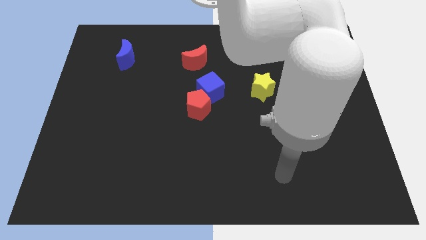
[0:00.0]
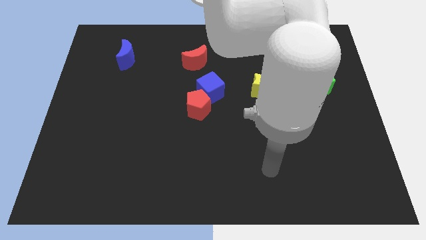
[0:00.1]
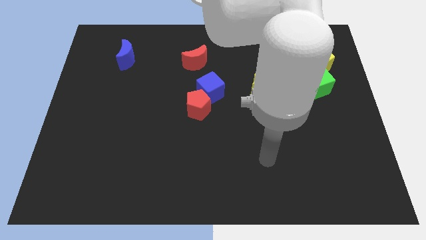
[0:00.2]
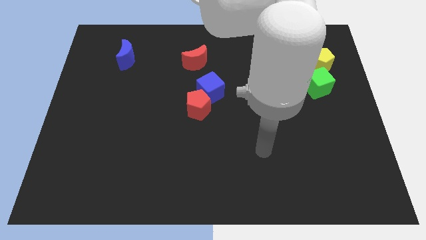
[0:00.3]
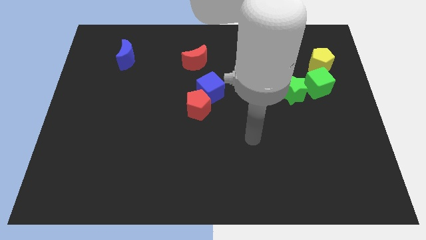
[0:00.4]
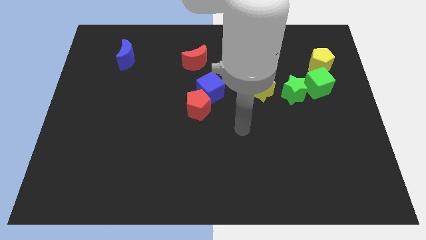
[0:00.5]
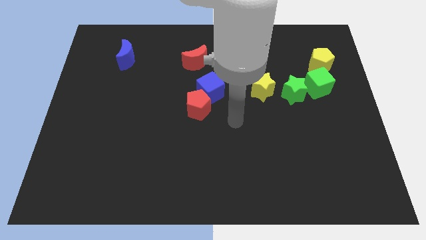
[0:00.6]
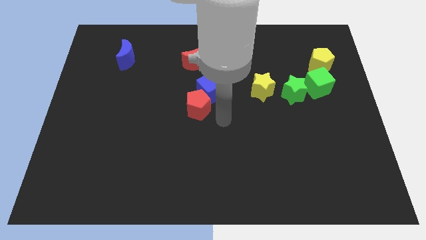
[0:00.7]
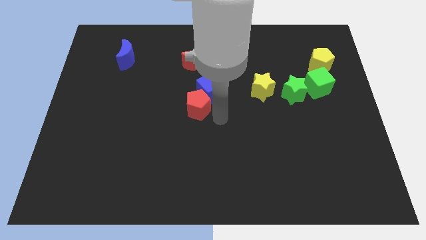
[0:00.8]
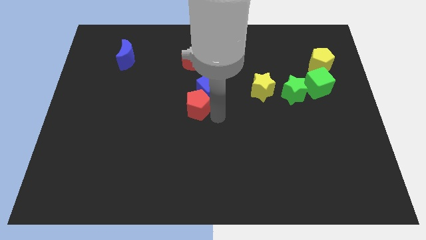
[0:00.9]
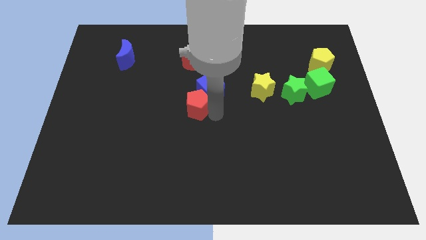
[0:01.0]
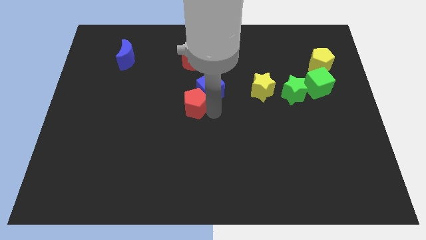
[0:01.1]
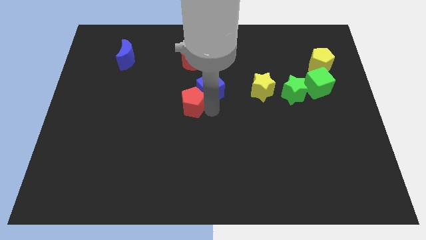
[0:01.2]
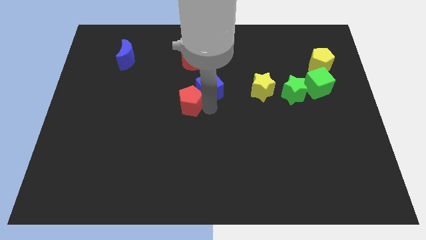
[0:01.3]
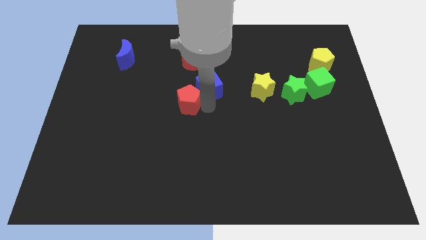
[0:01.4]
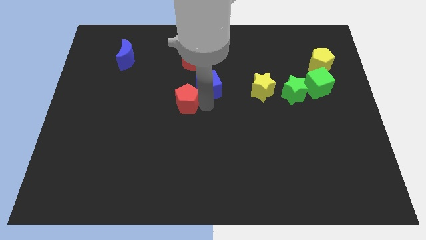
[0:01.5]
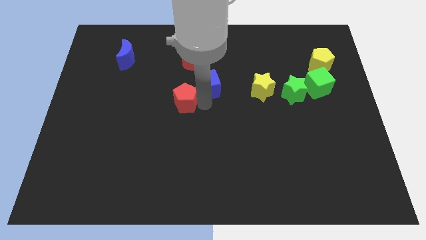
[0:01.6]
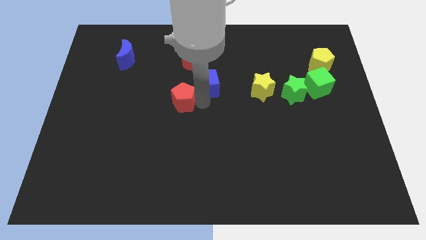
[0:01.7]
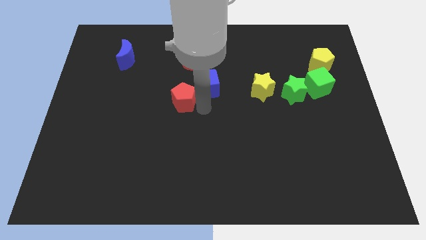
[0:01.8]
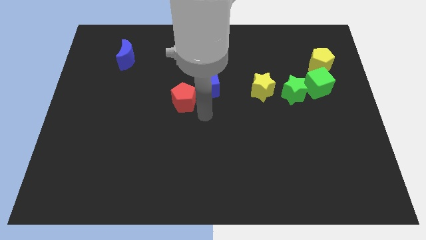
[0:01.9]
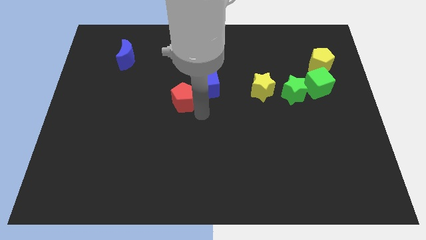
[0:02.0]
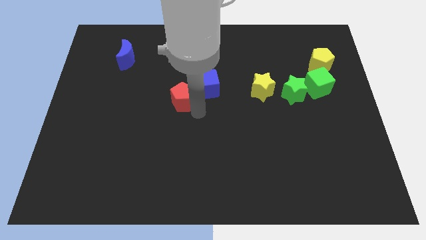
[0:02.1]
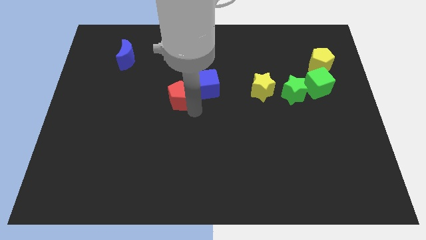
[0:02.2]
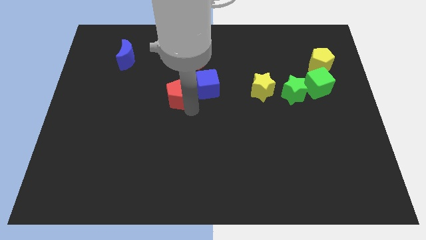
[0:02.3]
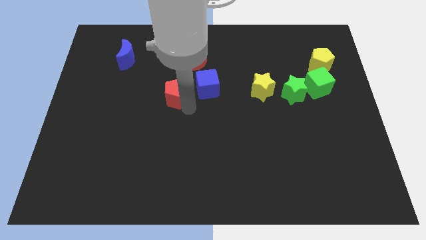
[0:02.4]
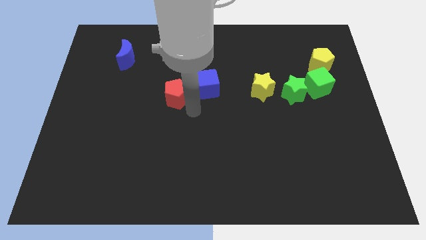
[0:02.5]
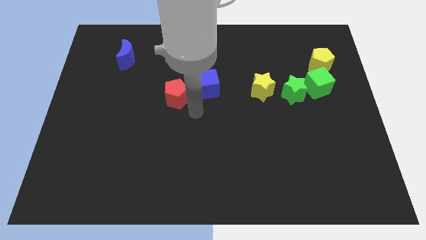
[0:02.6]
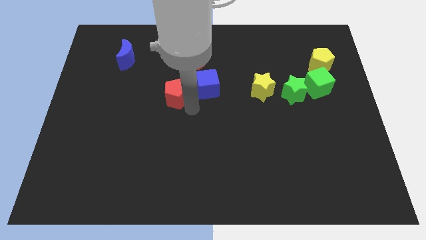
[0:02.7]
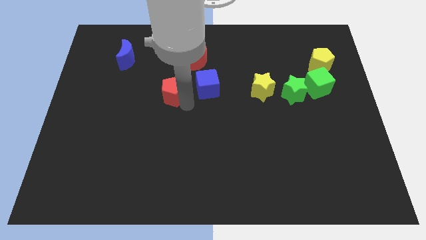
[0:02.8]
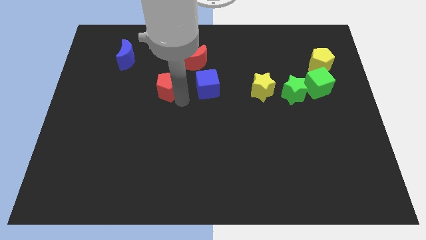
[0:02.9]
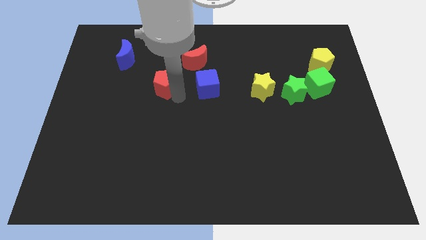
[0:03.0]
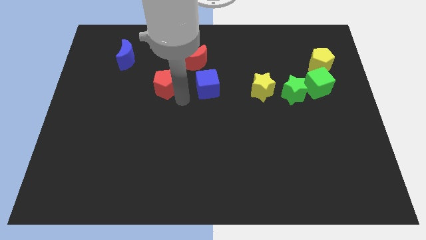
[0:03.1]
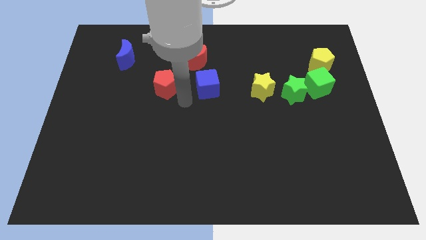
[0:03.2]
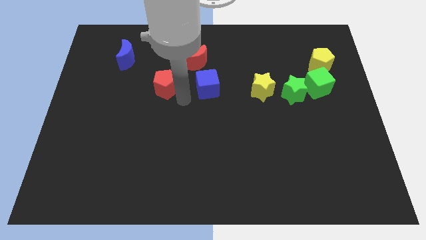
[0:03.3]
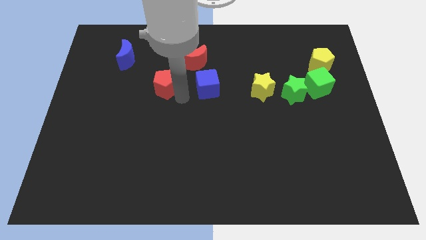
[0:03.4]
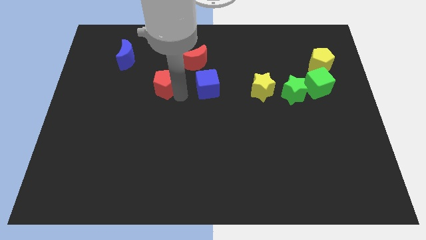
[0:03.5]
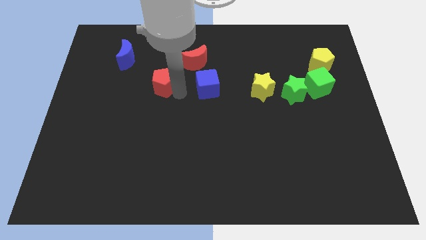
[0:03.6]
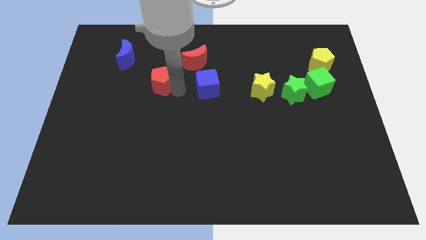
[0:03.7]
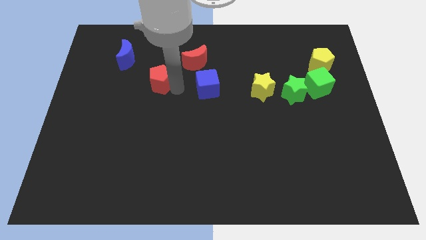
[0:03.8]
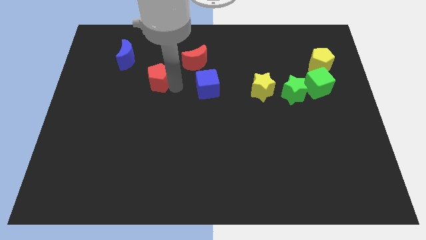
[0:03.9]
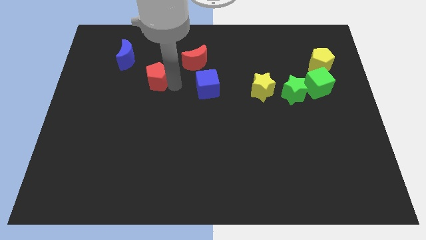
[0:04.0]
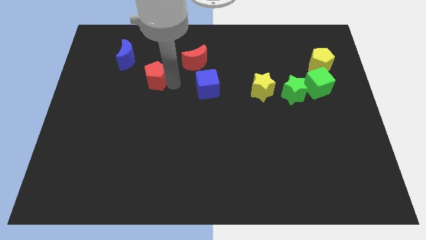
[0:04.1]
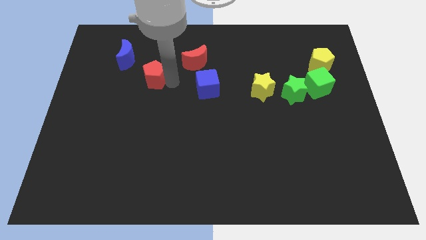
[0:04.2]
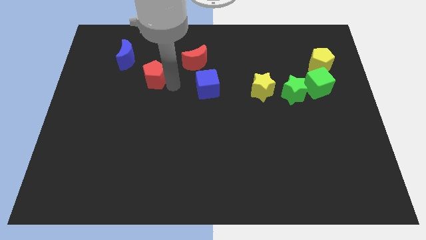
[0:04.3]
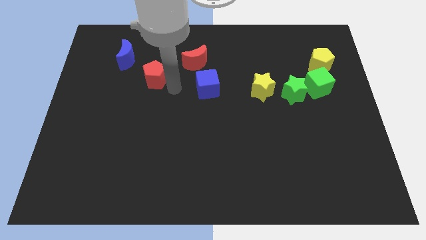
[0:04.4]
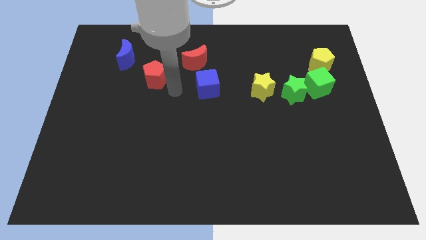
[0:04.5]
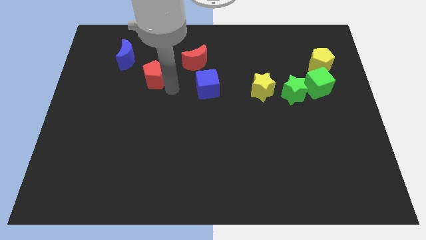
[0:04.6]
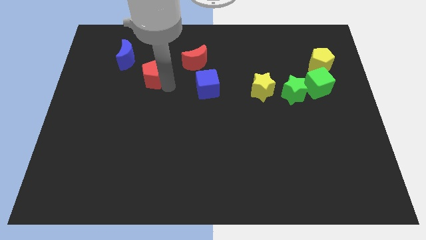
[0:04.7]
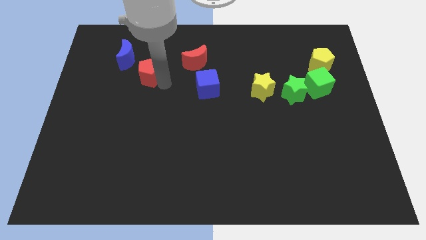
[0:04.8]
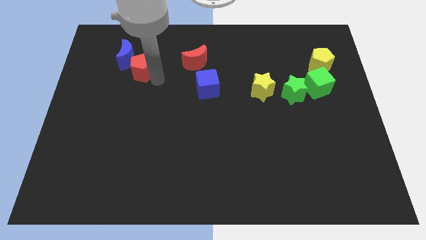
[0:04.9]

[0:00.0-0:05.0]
slide the red pentagon to the blue moon

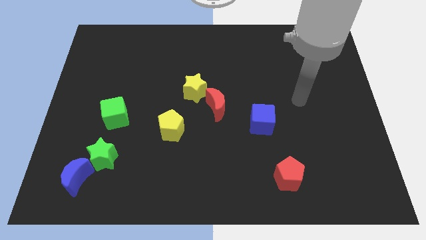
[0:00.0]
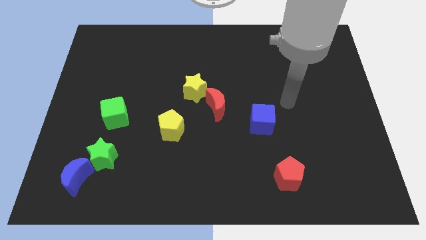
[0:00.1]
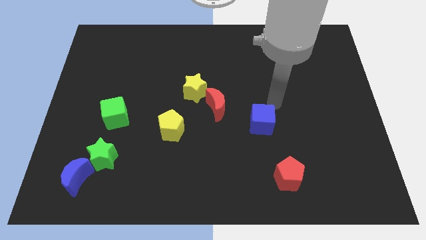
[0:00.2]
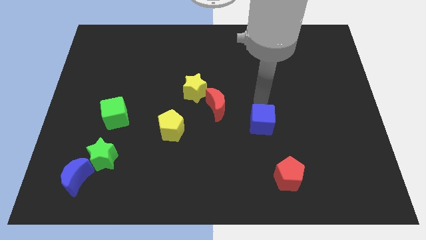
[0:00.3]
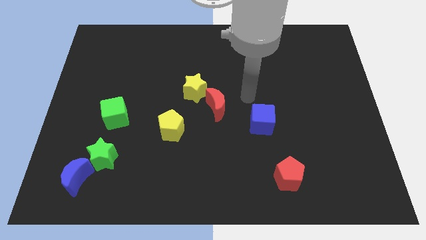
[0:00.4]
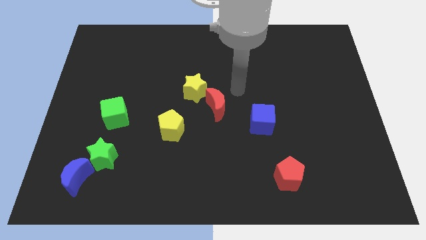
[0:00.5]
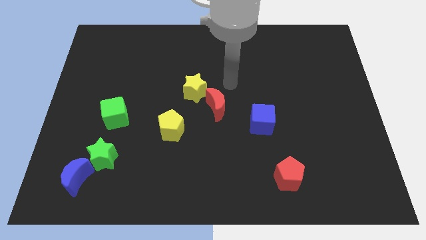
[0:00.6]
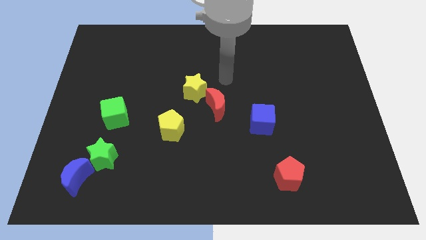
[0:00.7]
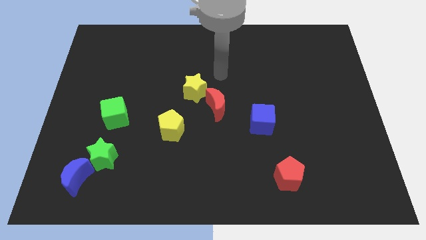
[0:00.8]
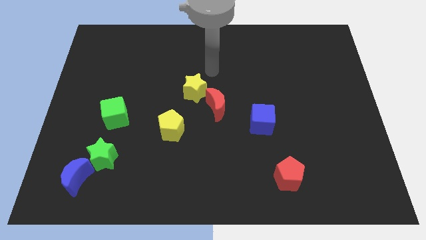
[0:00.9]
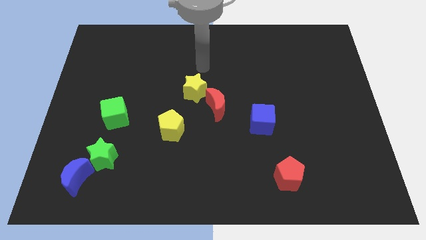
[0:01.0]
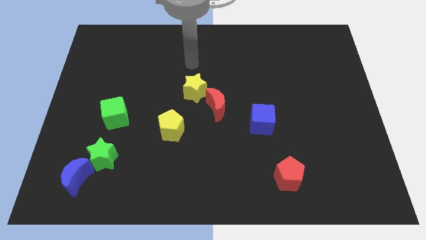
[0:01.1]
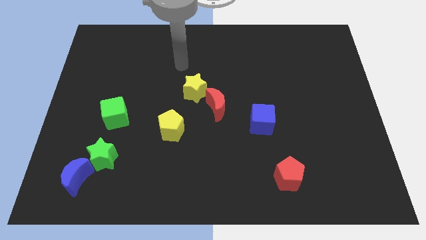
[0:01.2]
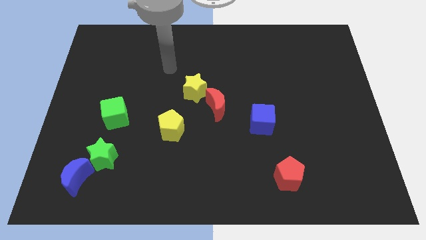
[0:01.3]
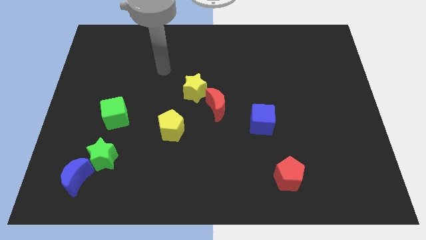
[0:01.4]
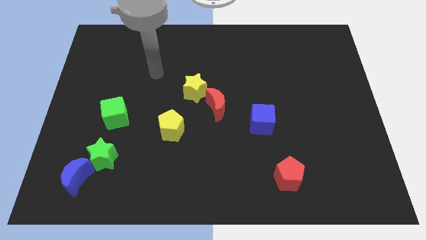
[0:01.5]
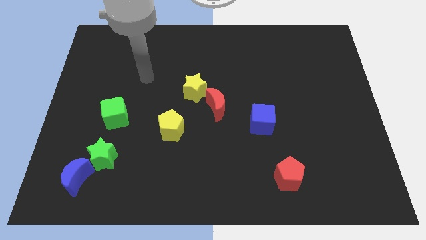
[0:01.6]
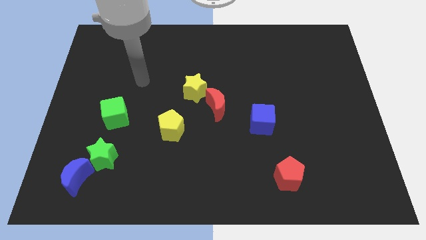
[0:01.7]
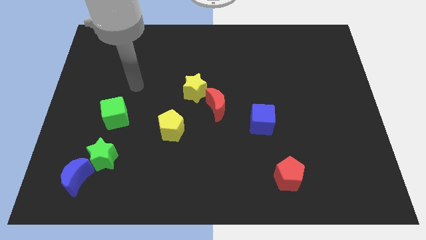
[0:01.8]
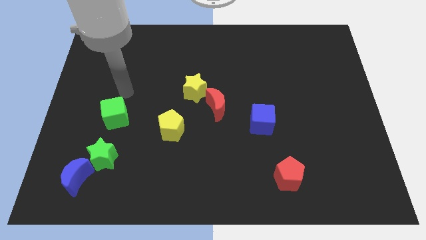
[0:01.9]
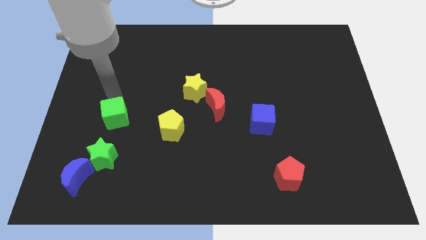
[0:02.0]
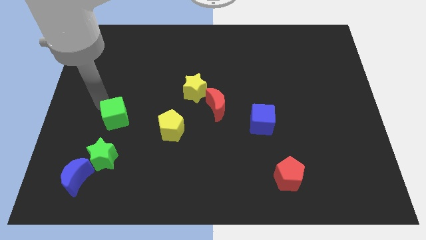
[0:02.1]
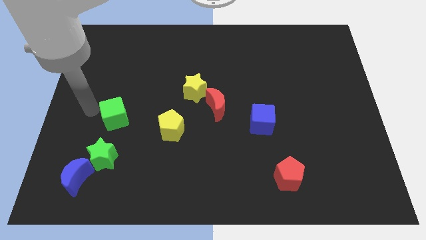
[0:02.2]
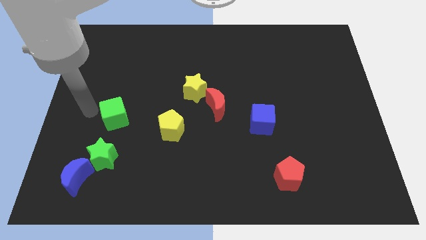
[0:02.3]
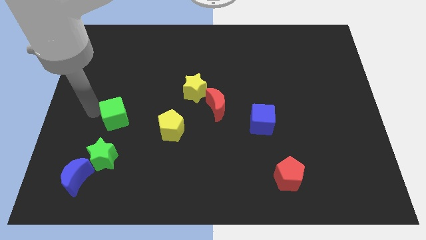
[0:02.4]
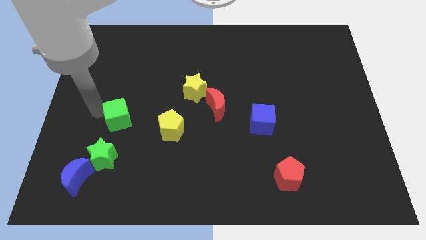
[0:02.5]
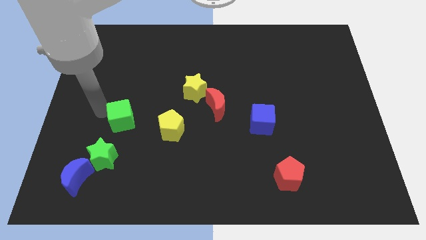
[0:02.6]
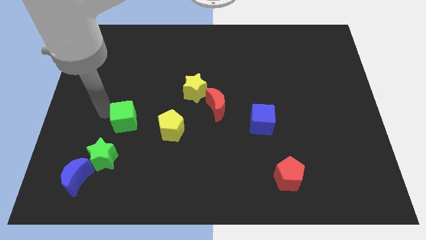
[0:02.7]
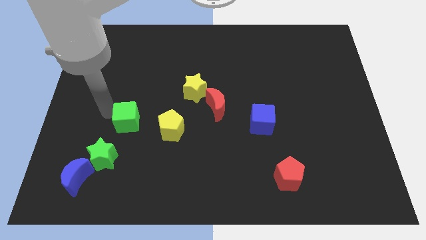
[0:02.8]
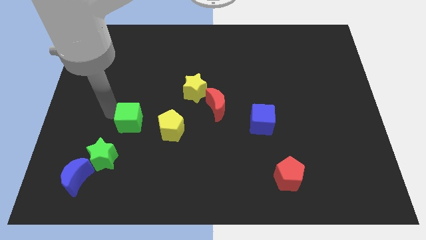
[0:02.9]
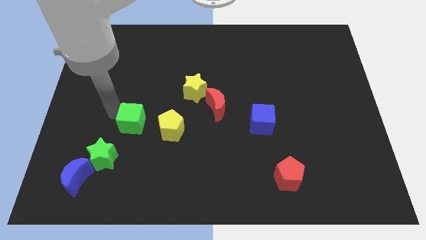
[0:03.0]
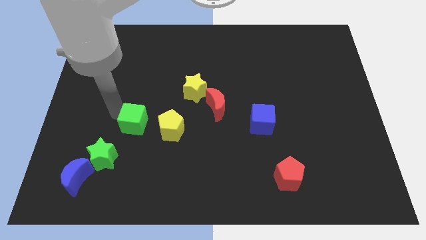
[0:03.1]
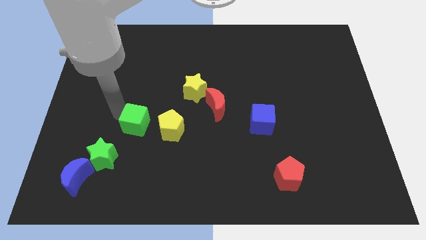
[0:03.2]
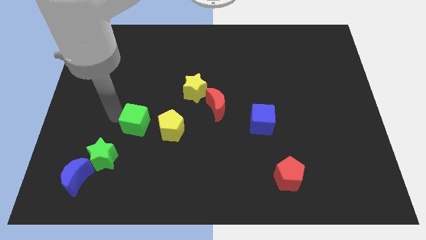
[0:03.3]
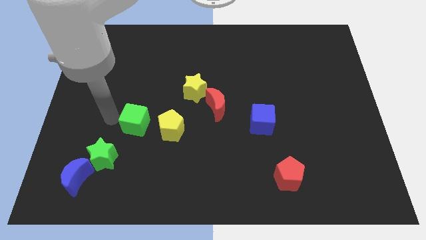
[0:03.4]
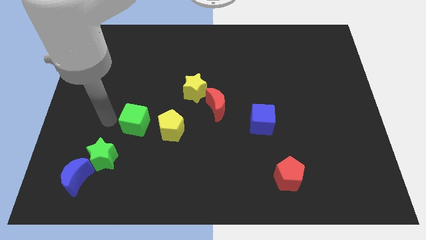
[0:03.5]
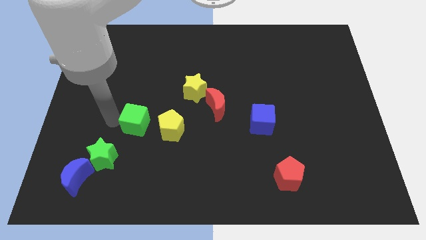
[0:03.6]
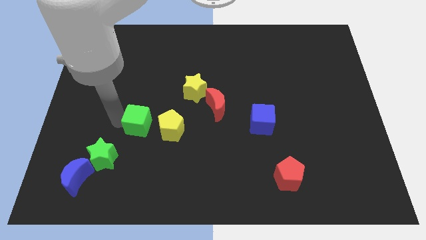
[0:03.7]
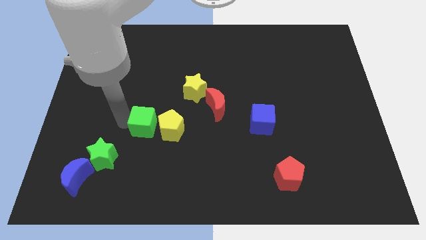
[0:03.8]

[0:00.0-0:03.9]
push the green cube close to the yellow pentagon
